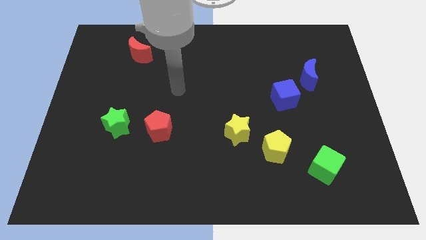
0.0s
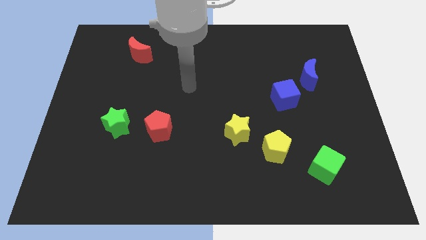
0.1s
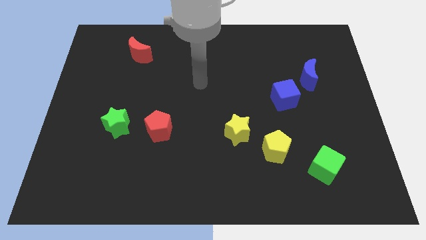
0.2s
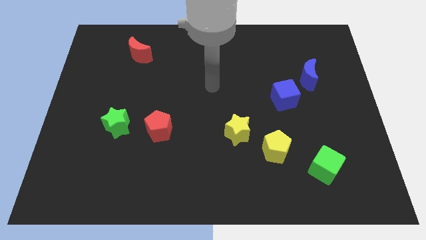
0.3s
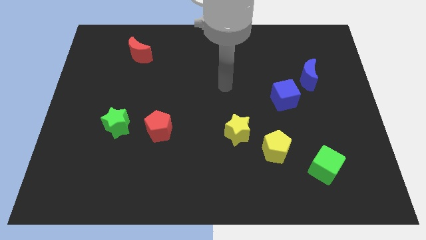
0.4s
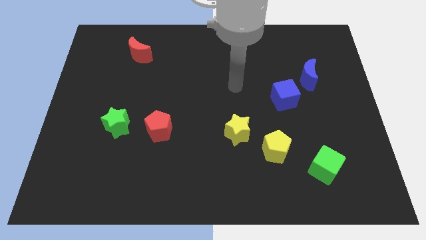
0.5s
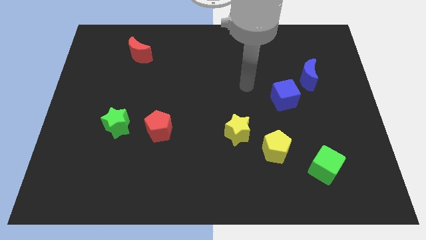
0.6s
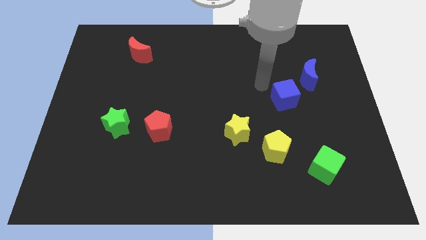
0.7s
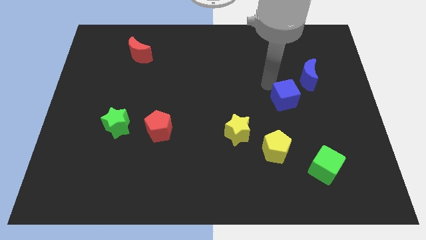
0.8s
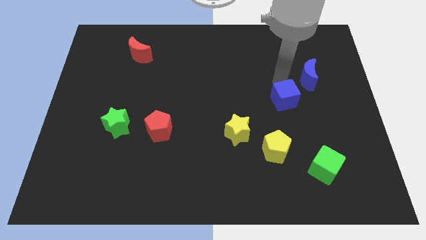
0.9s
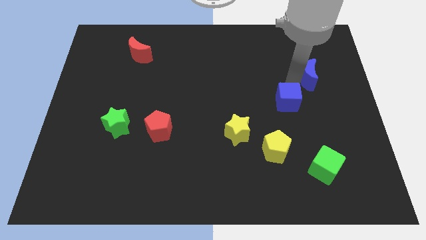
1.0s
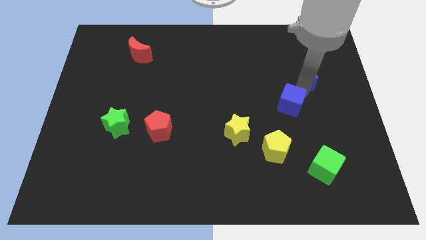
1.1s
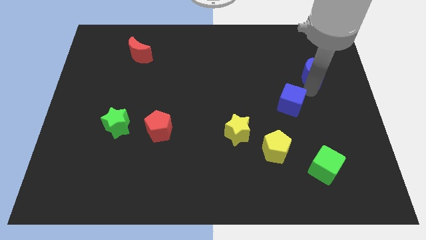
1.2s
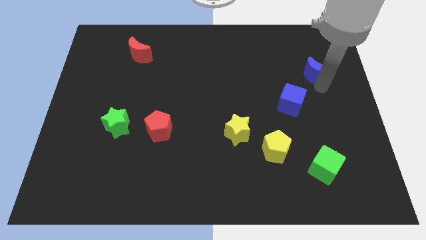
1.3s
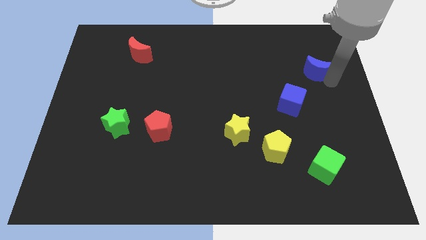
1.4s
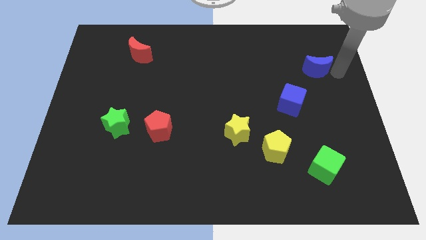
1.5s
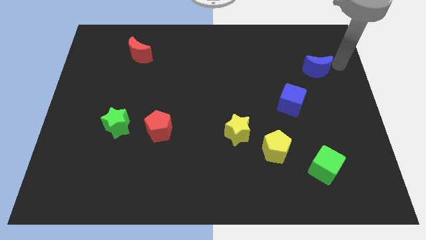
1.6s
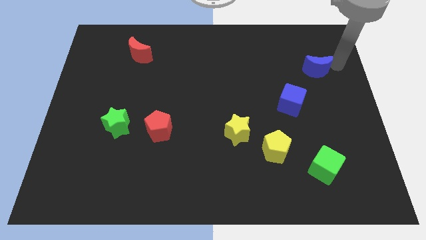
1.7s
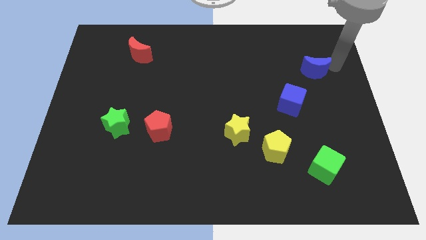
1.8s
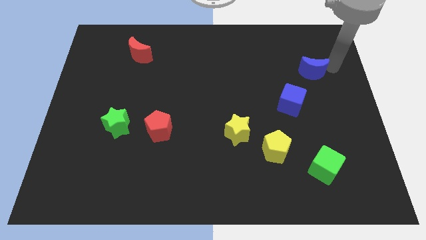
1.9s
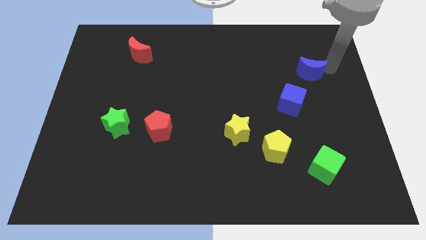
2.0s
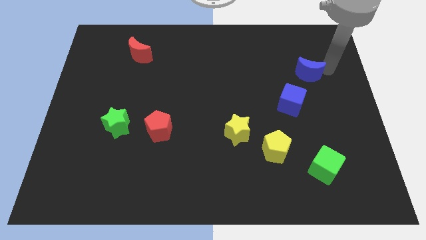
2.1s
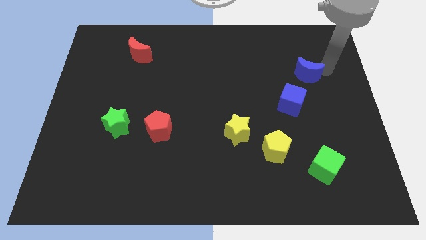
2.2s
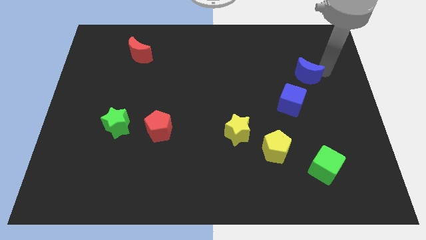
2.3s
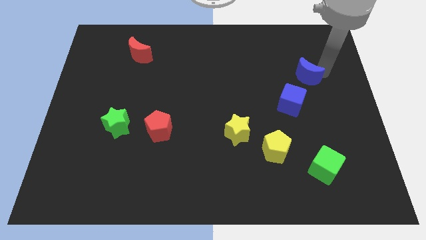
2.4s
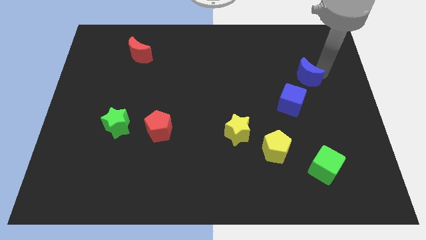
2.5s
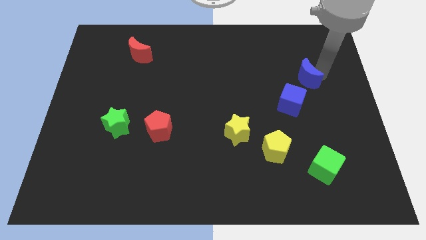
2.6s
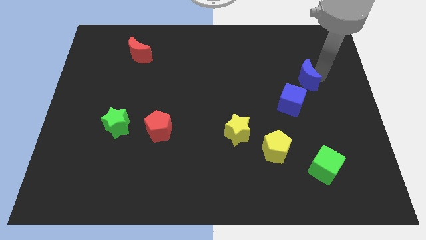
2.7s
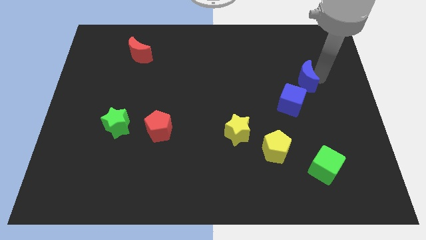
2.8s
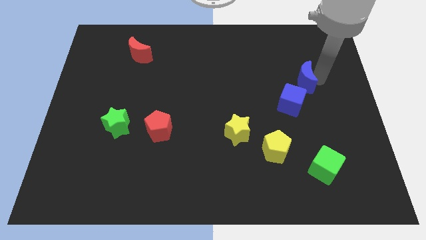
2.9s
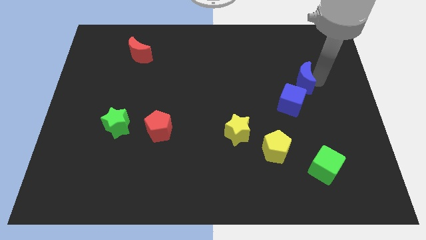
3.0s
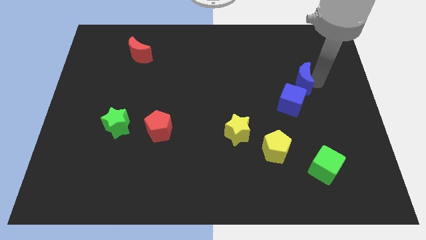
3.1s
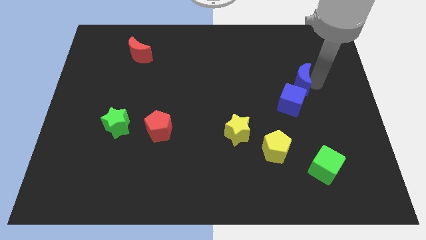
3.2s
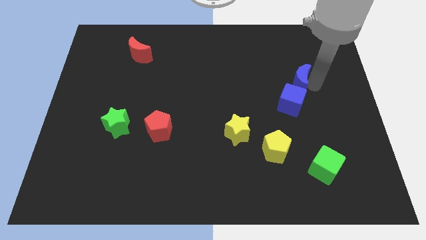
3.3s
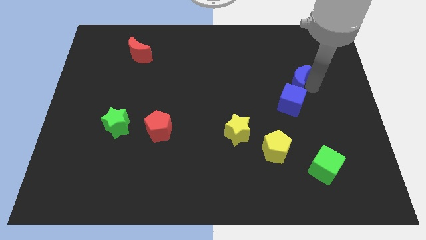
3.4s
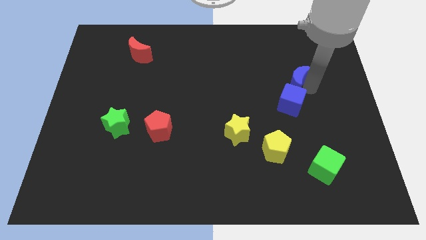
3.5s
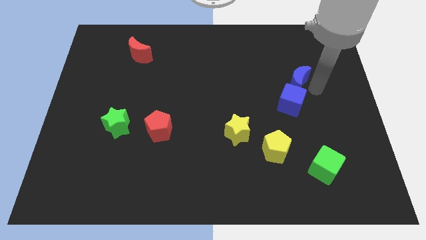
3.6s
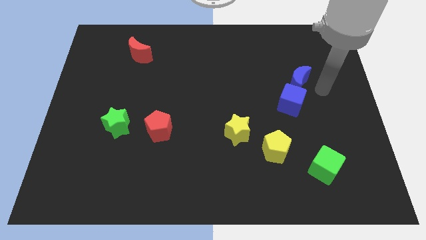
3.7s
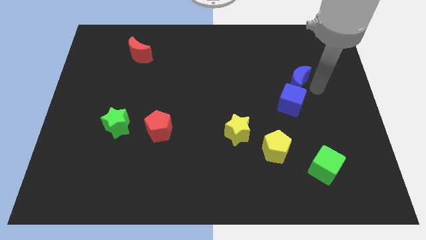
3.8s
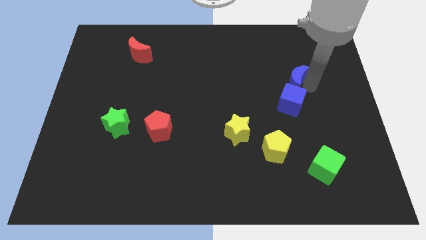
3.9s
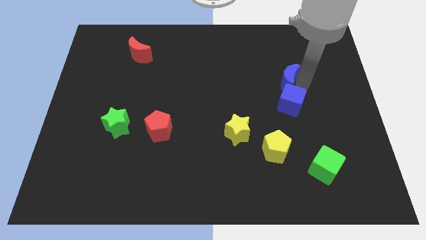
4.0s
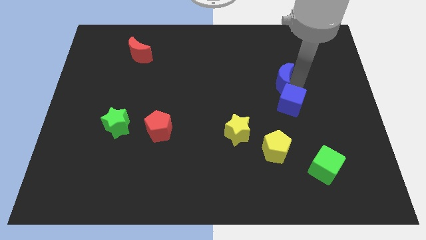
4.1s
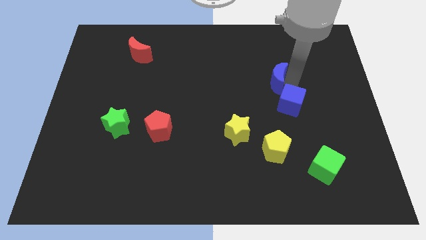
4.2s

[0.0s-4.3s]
slide the blue moon slightly to the left

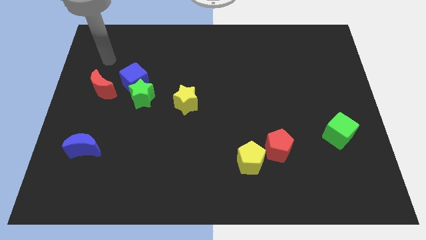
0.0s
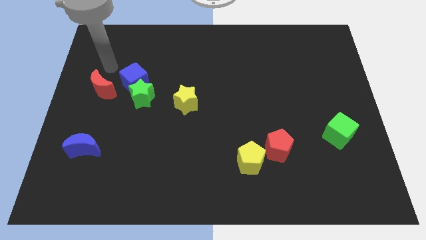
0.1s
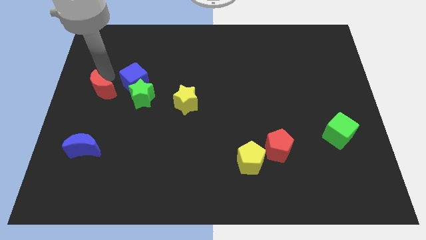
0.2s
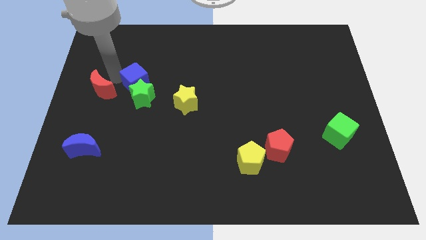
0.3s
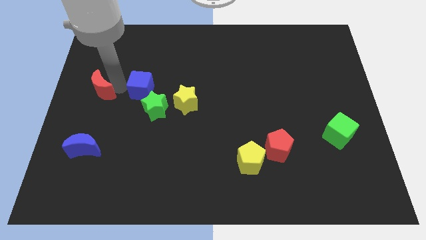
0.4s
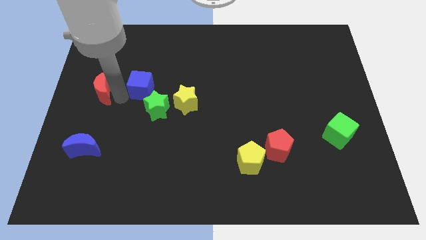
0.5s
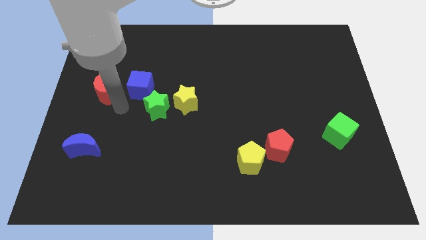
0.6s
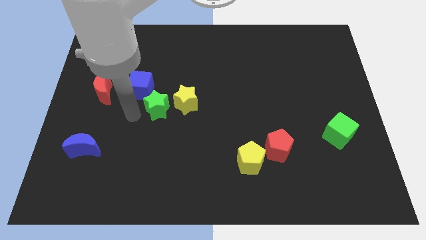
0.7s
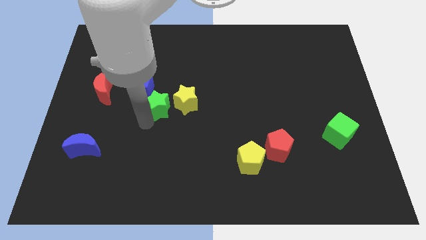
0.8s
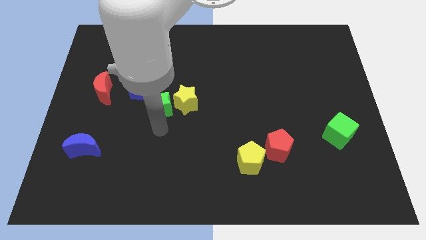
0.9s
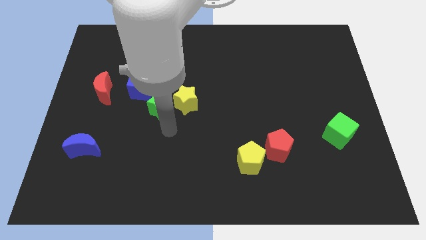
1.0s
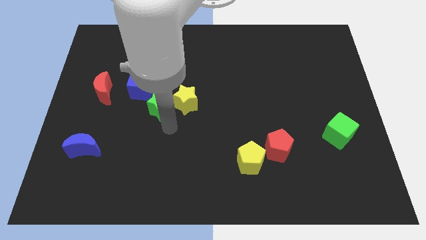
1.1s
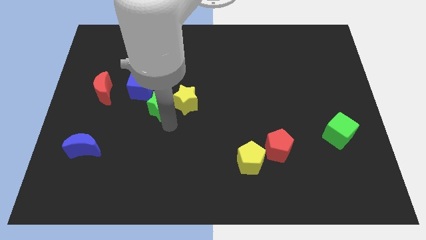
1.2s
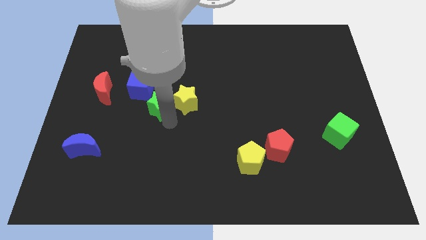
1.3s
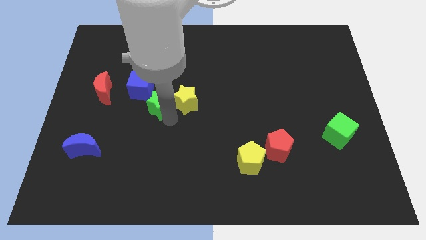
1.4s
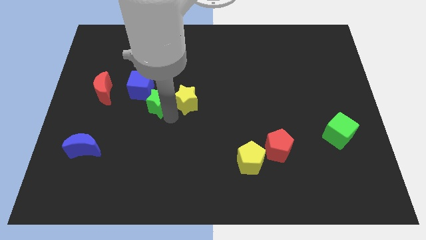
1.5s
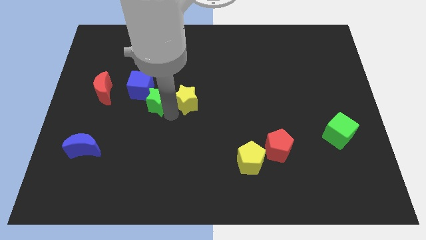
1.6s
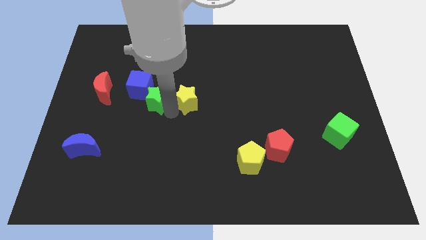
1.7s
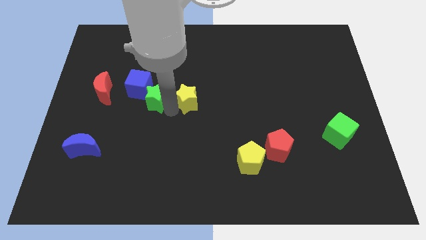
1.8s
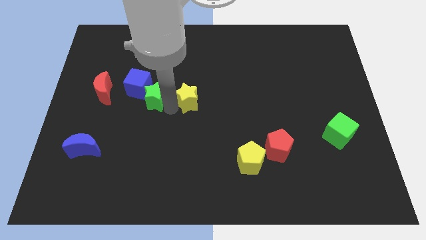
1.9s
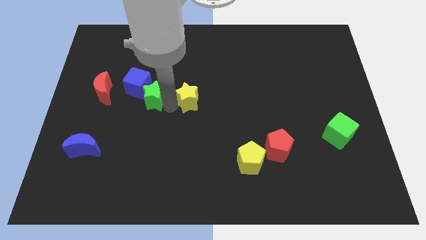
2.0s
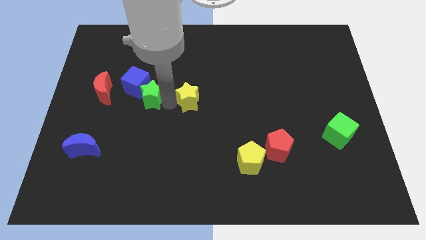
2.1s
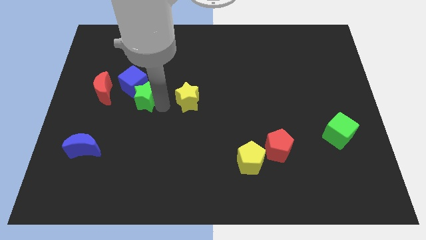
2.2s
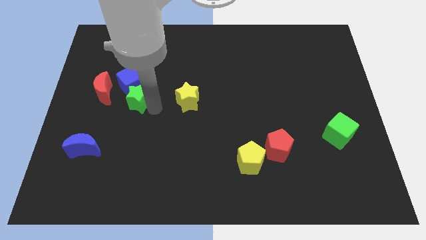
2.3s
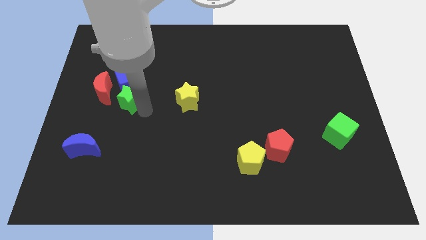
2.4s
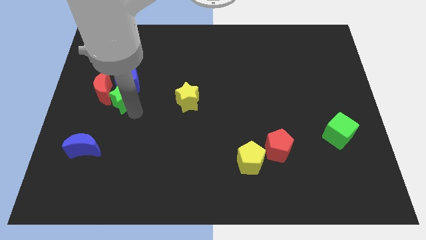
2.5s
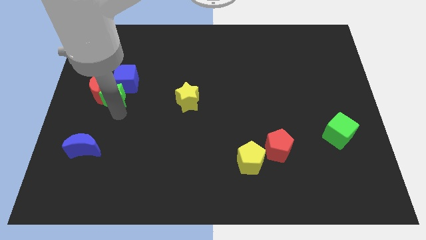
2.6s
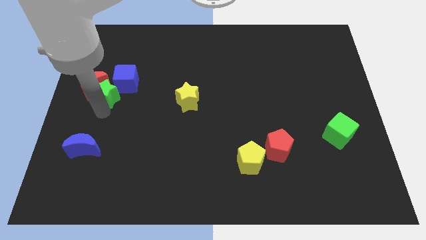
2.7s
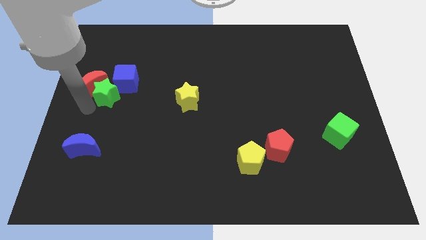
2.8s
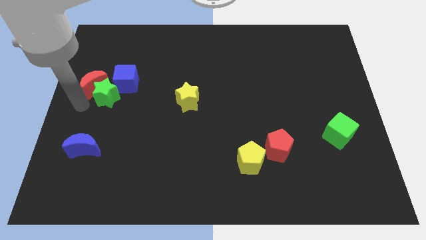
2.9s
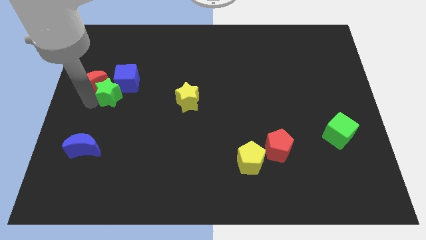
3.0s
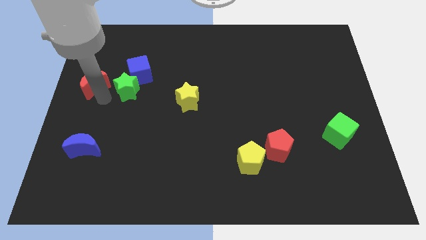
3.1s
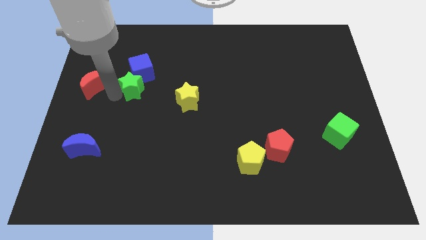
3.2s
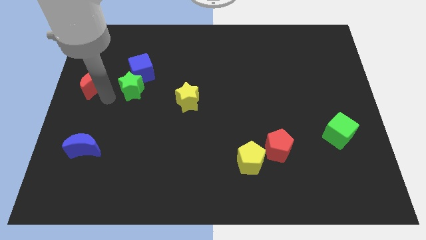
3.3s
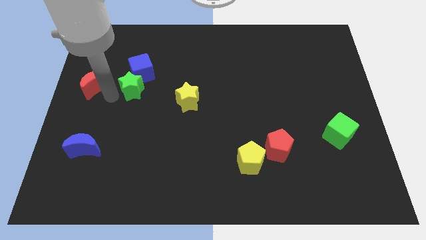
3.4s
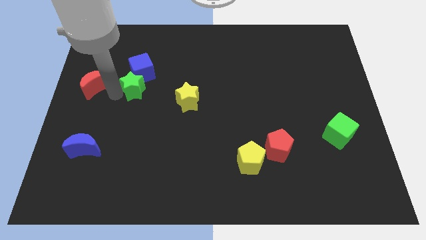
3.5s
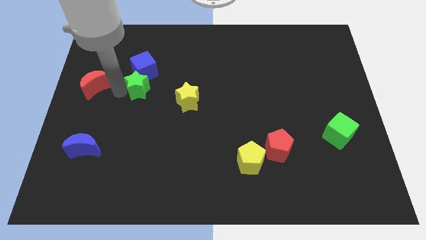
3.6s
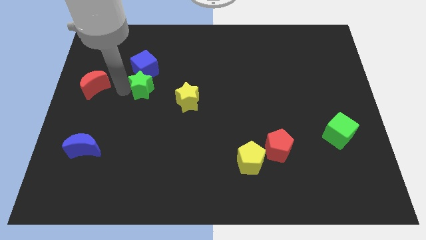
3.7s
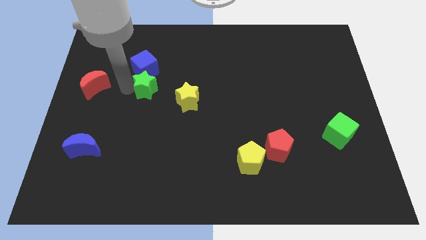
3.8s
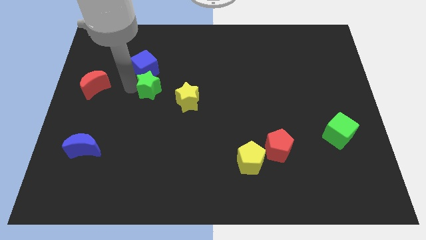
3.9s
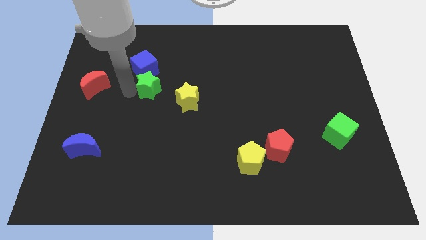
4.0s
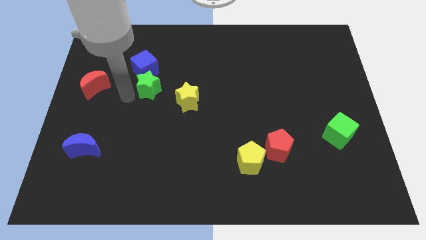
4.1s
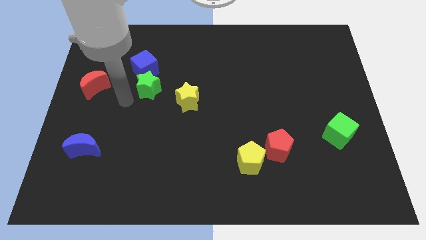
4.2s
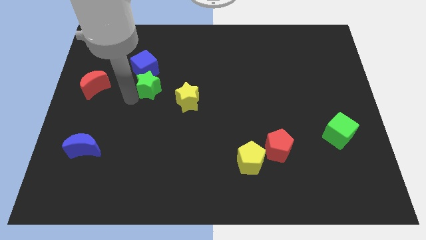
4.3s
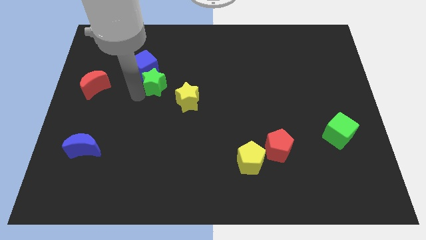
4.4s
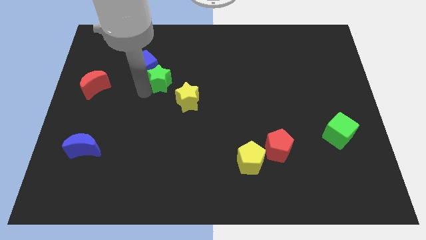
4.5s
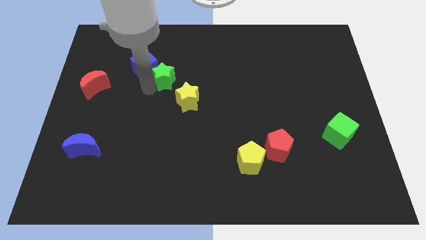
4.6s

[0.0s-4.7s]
slide the green star a little up and right
